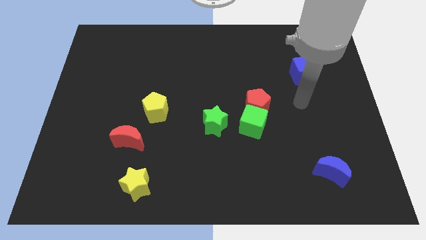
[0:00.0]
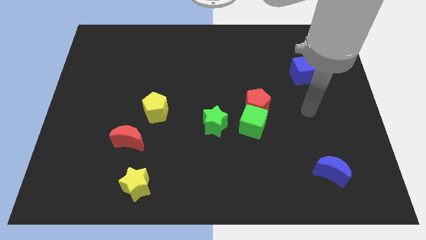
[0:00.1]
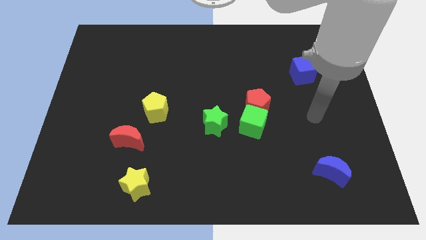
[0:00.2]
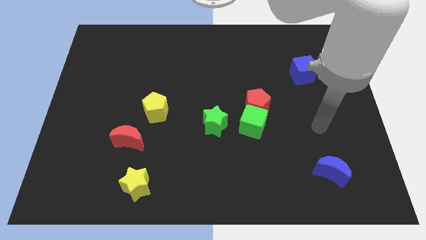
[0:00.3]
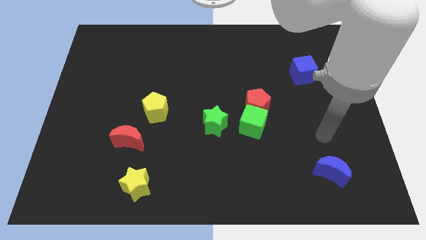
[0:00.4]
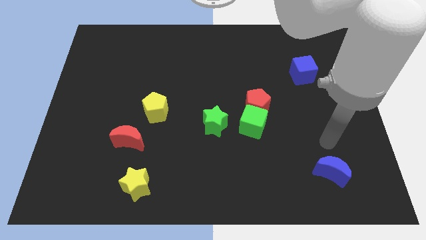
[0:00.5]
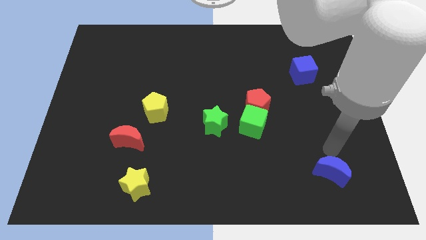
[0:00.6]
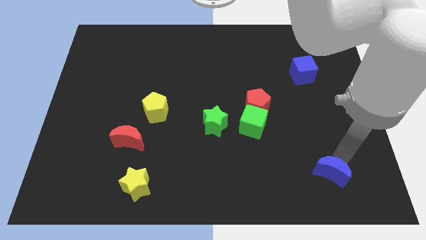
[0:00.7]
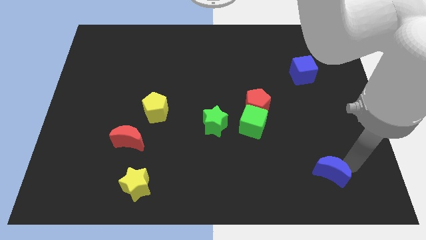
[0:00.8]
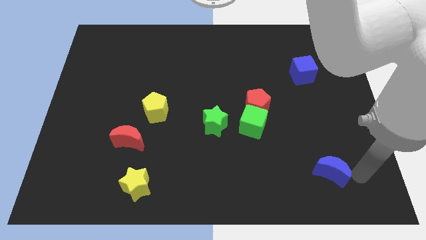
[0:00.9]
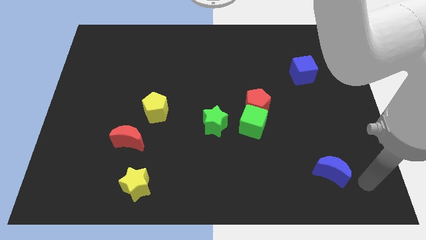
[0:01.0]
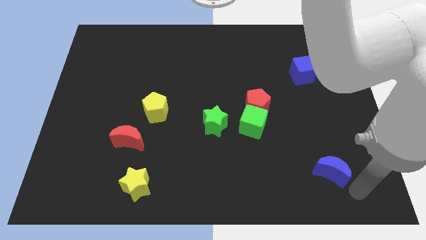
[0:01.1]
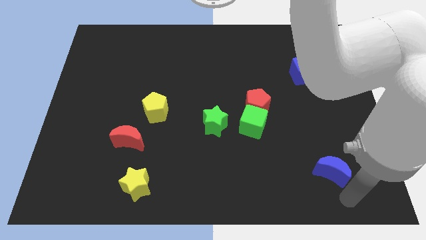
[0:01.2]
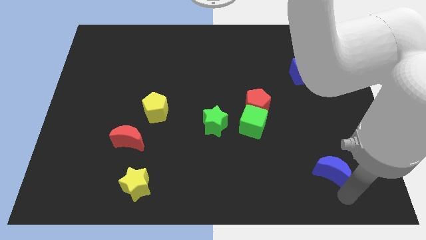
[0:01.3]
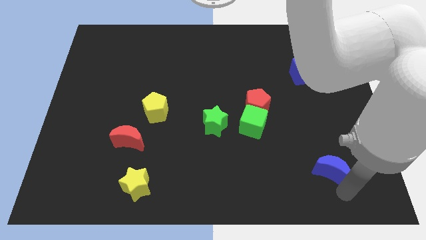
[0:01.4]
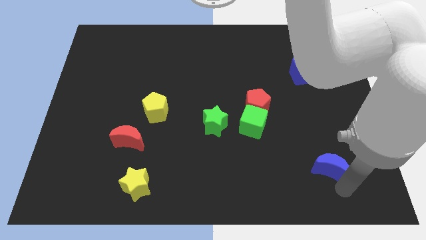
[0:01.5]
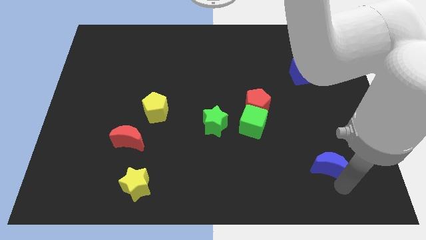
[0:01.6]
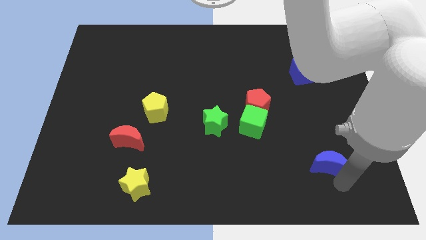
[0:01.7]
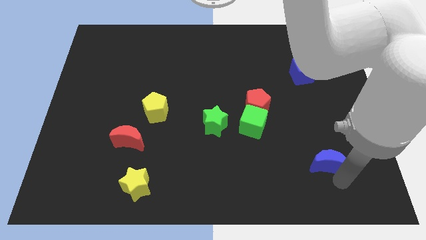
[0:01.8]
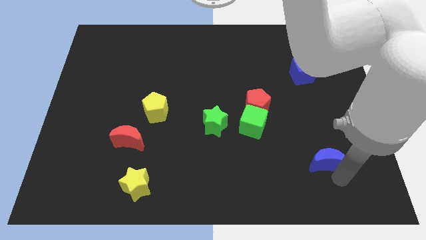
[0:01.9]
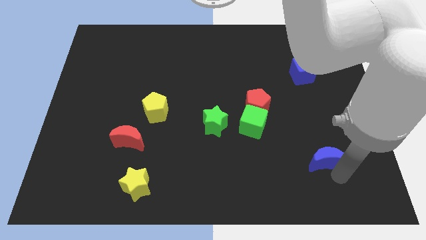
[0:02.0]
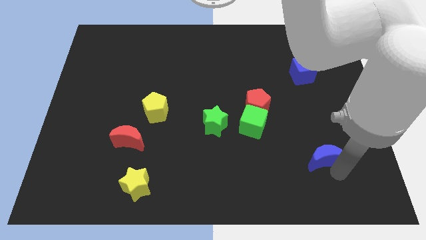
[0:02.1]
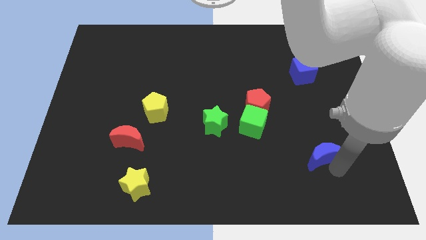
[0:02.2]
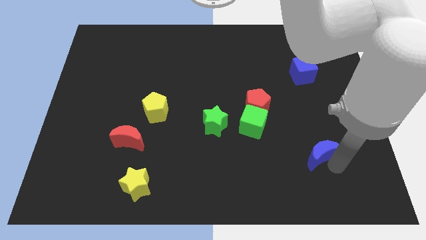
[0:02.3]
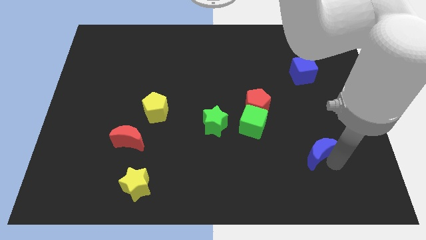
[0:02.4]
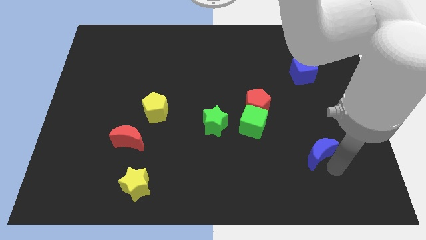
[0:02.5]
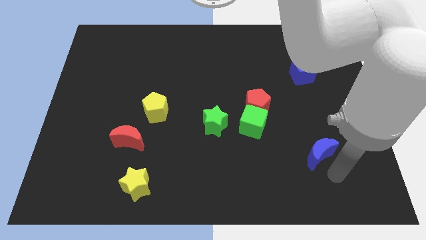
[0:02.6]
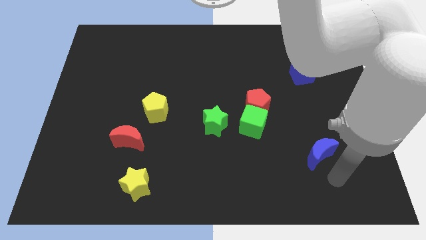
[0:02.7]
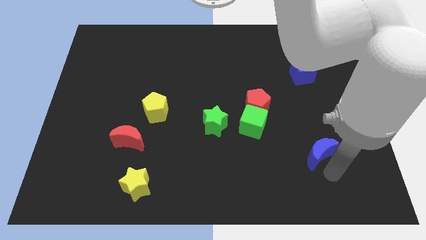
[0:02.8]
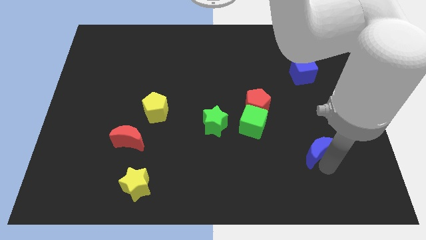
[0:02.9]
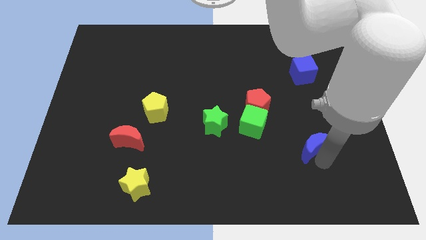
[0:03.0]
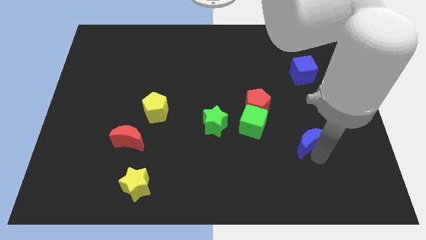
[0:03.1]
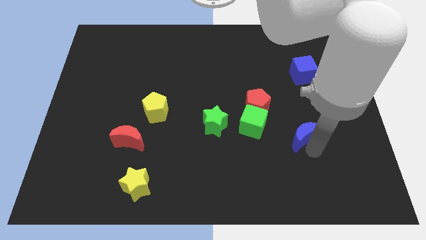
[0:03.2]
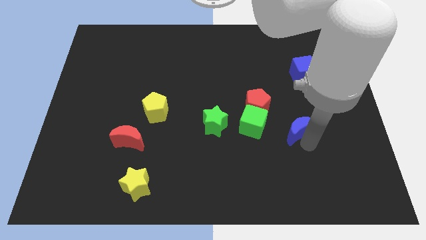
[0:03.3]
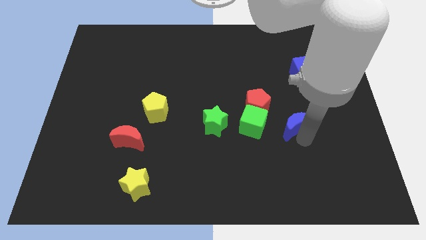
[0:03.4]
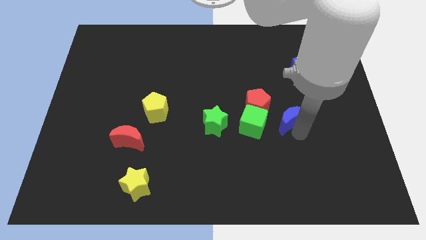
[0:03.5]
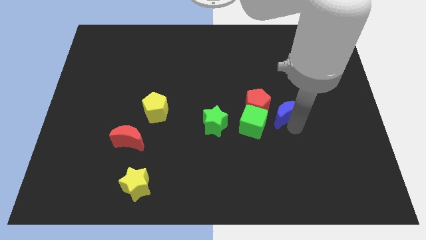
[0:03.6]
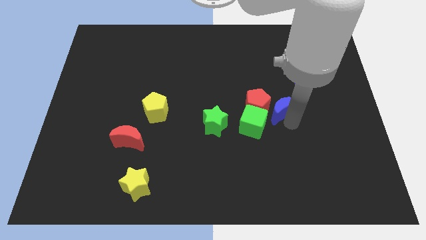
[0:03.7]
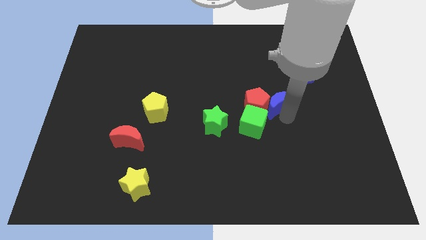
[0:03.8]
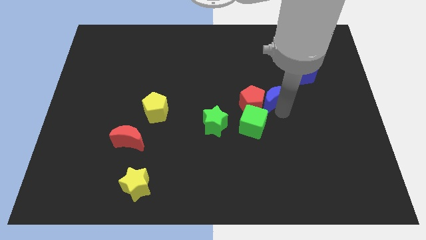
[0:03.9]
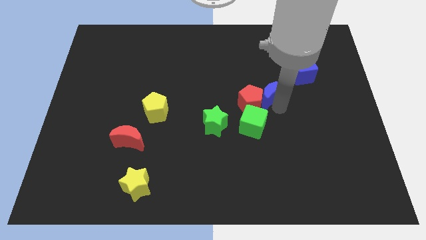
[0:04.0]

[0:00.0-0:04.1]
push the blue moon upwards and to the left

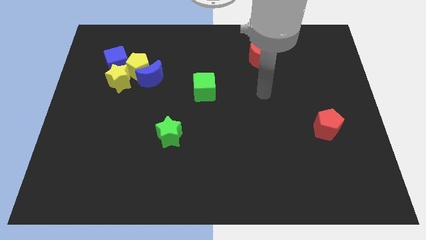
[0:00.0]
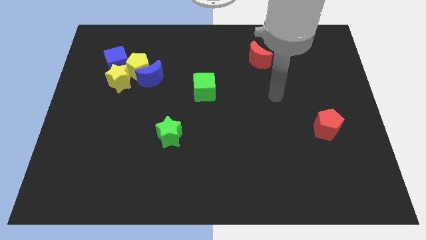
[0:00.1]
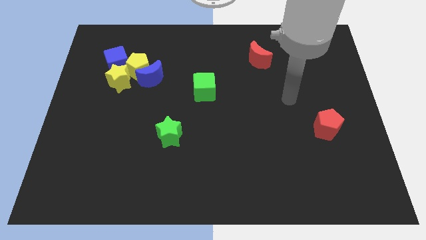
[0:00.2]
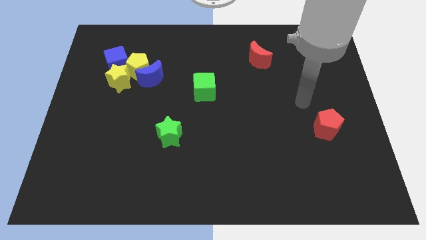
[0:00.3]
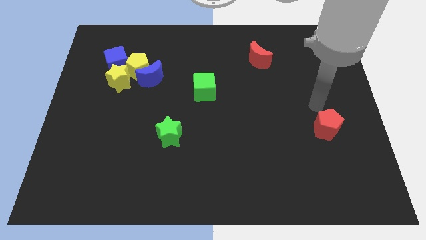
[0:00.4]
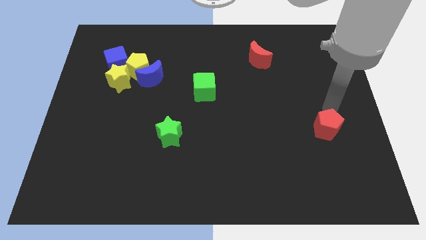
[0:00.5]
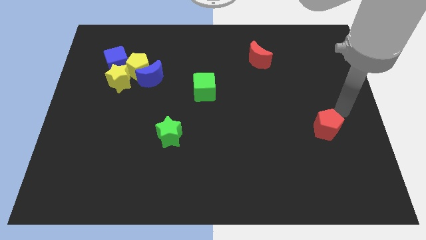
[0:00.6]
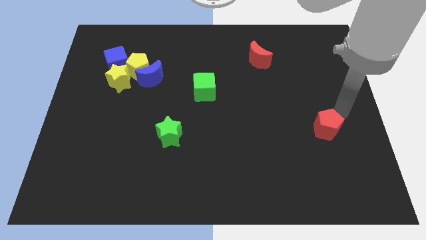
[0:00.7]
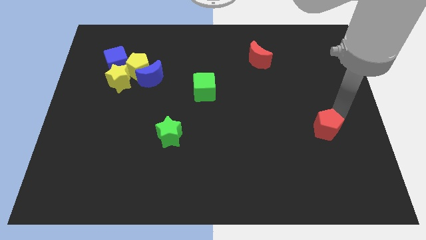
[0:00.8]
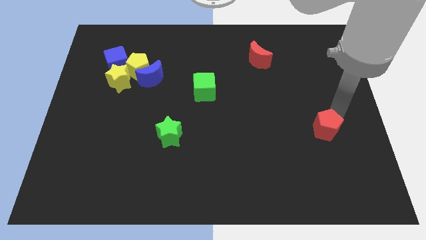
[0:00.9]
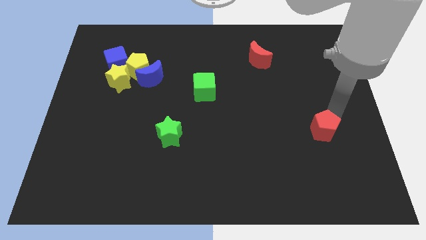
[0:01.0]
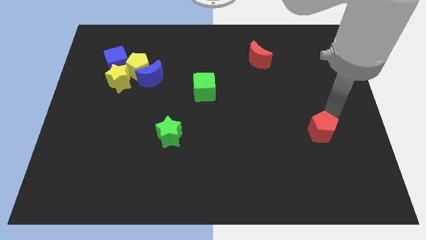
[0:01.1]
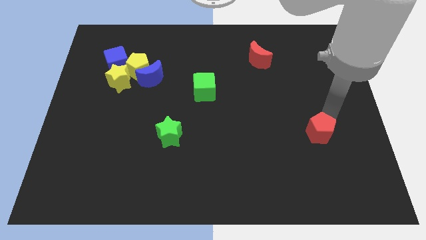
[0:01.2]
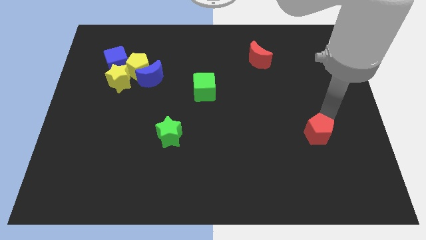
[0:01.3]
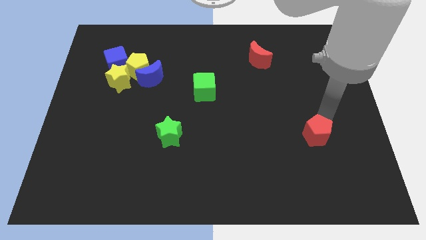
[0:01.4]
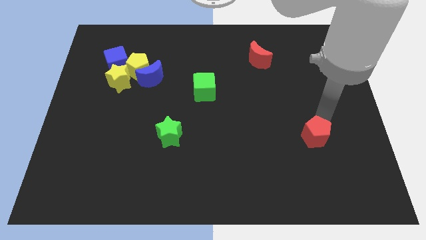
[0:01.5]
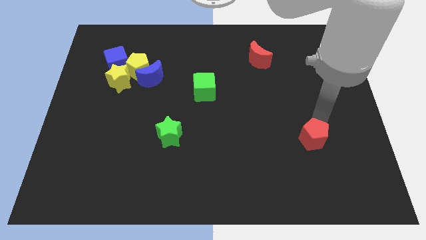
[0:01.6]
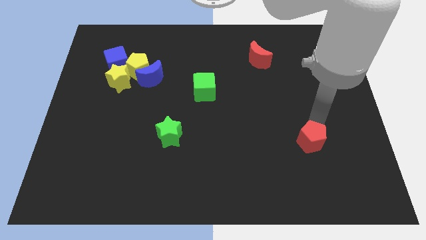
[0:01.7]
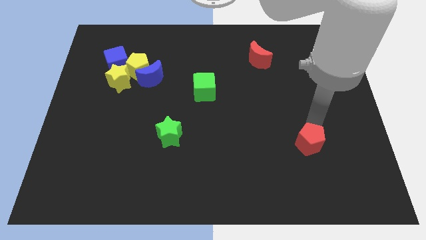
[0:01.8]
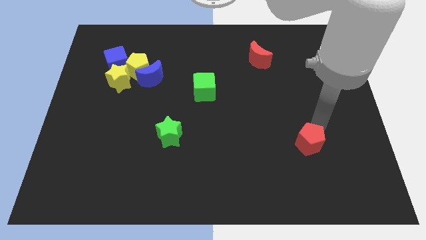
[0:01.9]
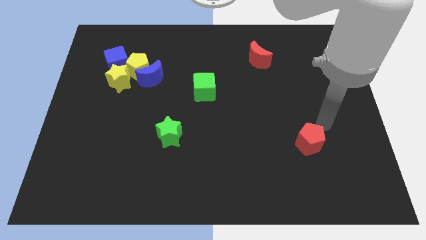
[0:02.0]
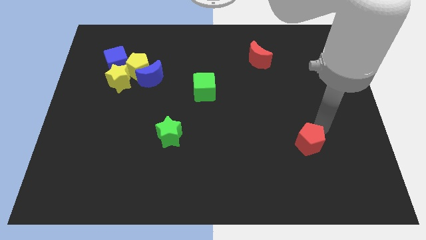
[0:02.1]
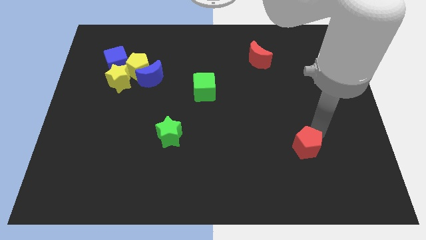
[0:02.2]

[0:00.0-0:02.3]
slightly move the red pentagon down and left

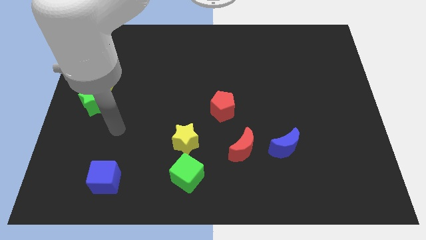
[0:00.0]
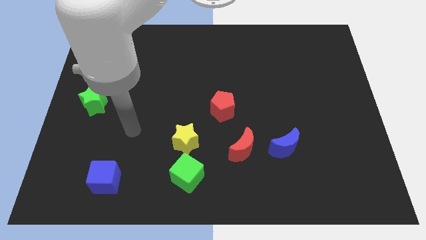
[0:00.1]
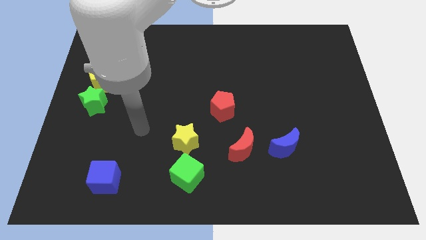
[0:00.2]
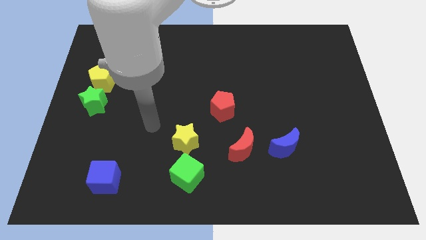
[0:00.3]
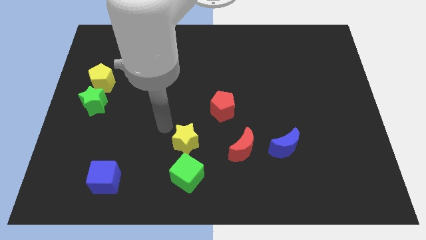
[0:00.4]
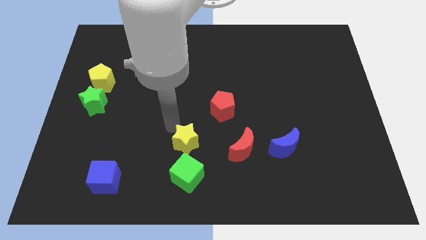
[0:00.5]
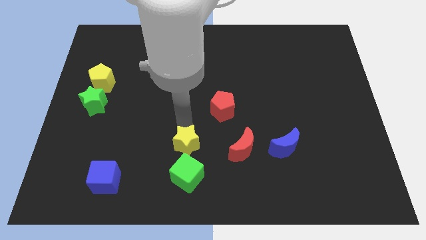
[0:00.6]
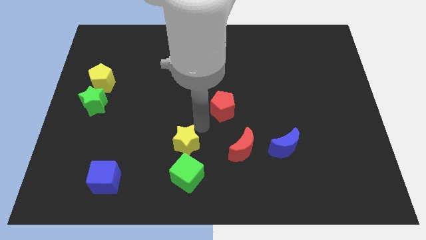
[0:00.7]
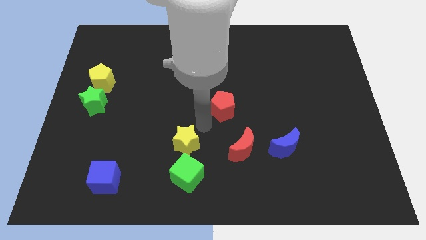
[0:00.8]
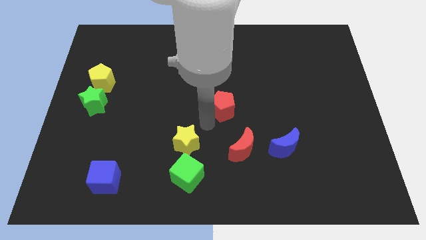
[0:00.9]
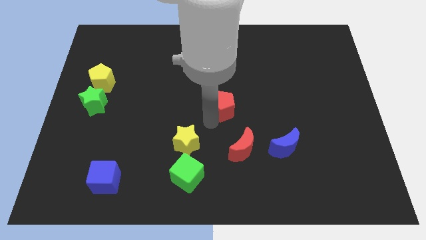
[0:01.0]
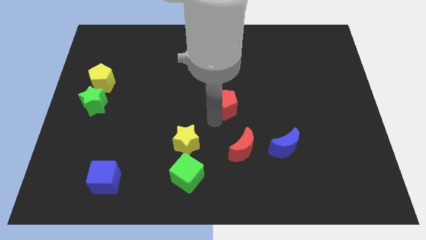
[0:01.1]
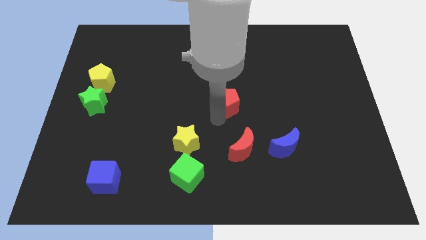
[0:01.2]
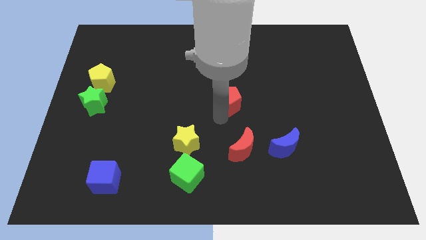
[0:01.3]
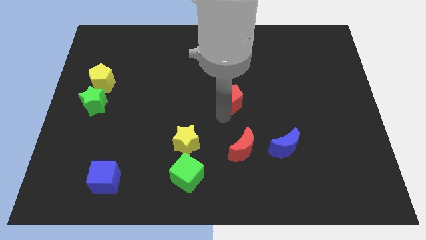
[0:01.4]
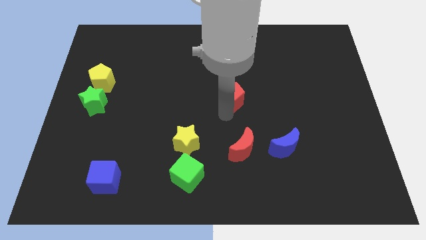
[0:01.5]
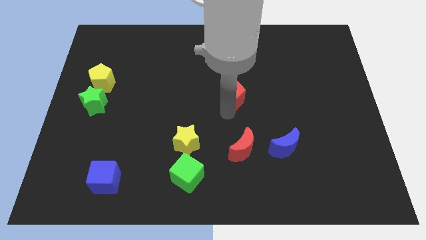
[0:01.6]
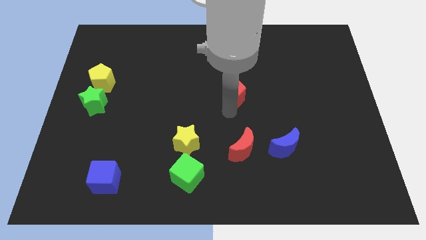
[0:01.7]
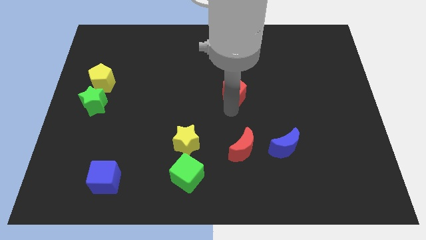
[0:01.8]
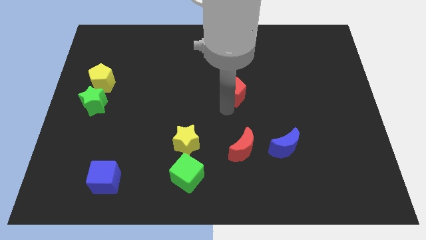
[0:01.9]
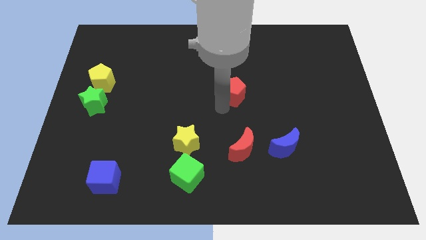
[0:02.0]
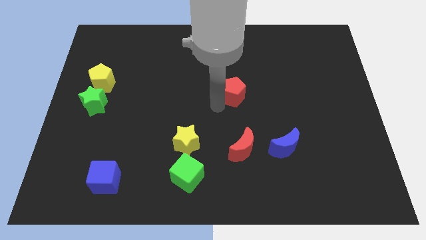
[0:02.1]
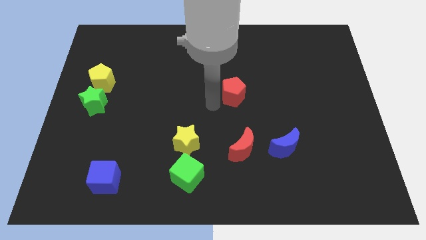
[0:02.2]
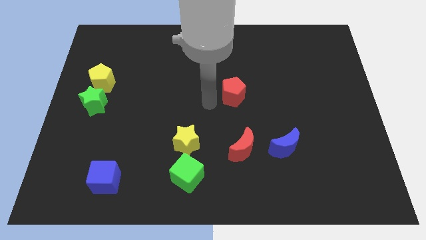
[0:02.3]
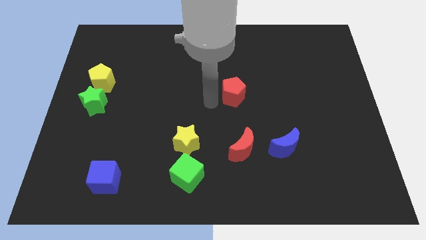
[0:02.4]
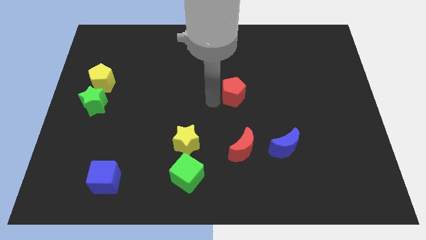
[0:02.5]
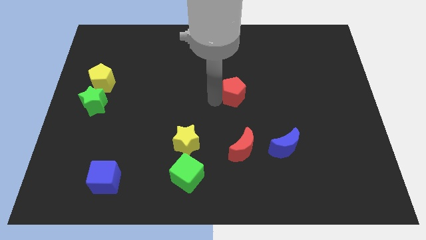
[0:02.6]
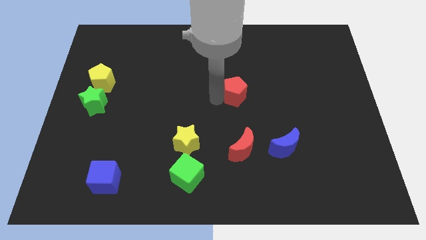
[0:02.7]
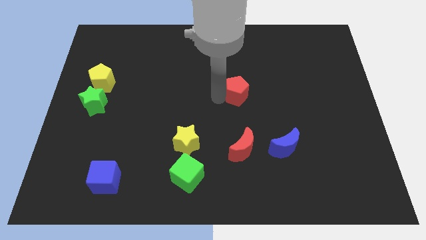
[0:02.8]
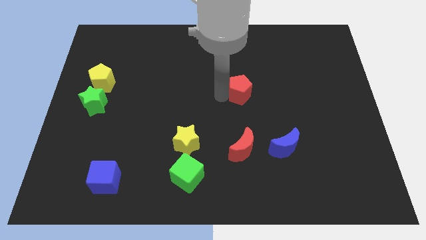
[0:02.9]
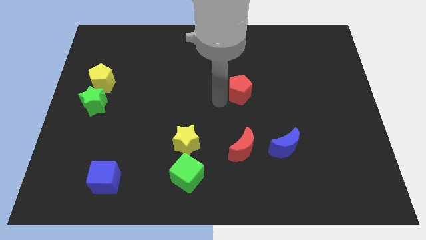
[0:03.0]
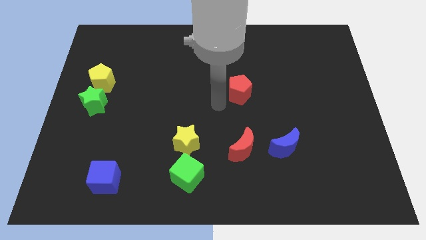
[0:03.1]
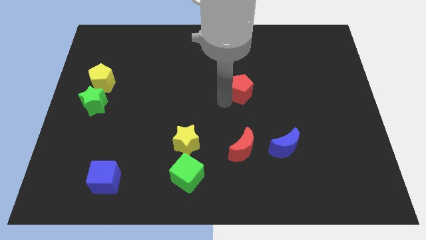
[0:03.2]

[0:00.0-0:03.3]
move the red pentagon diagonally up and right a little
